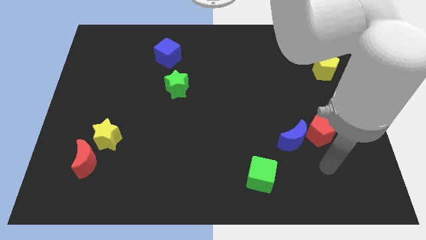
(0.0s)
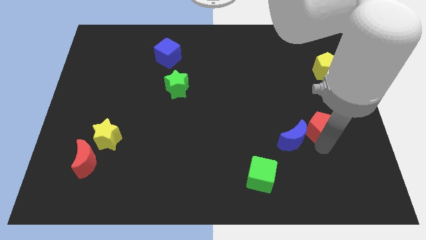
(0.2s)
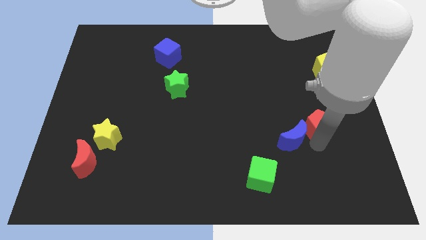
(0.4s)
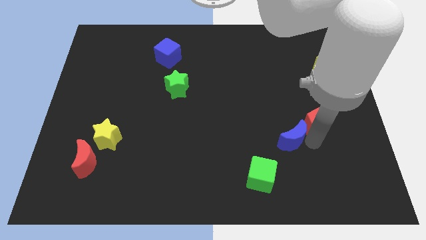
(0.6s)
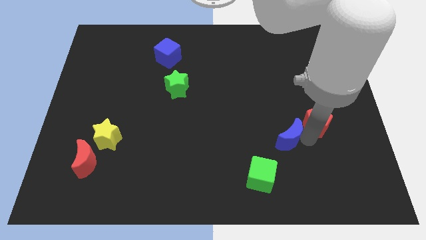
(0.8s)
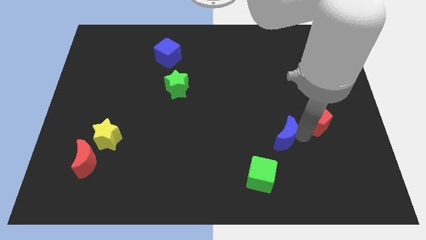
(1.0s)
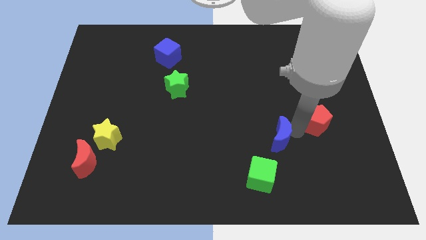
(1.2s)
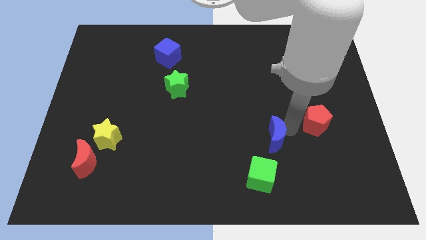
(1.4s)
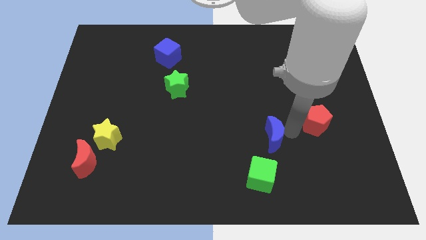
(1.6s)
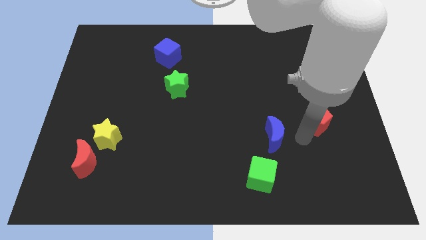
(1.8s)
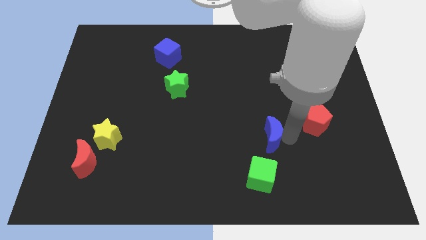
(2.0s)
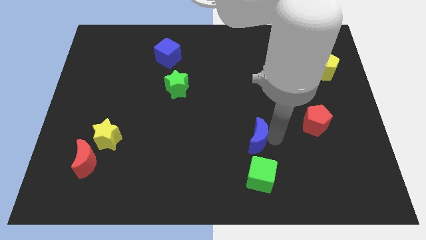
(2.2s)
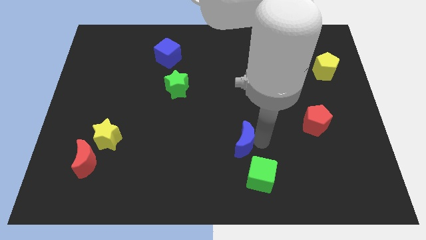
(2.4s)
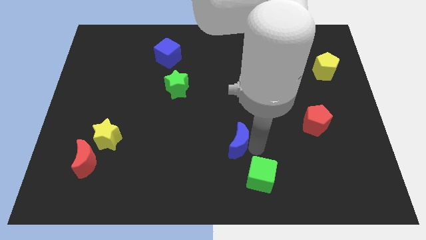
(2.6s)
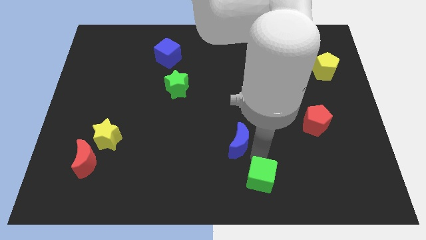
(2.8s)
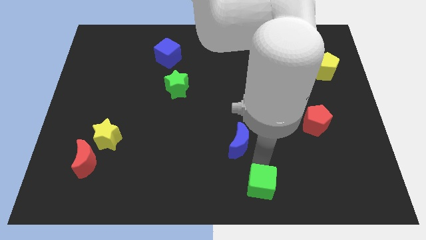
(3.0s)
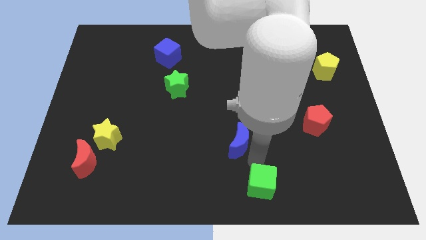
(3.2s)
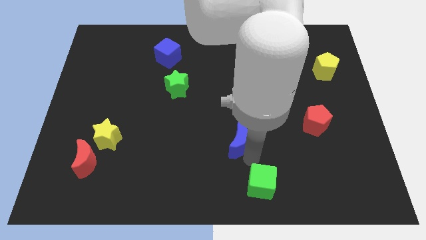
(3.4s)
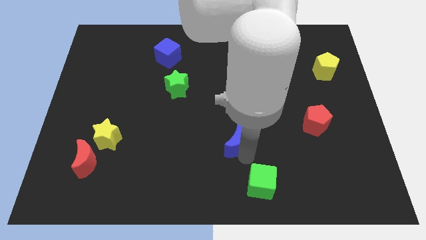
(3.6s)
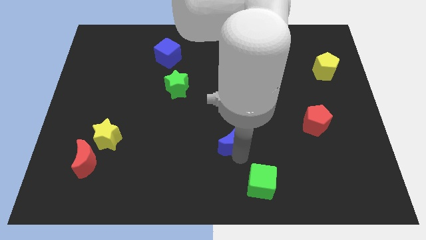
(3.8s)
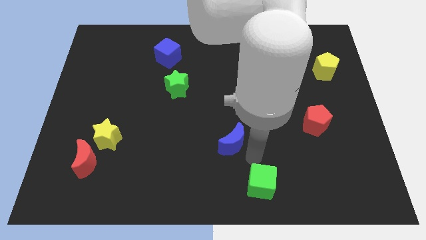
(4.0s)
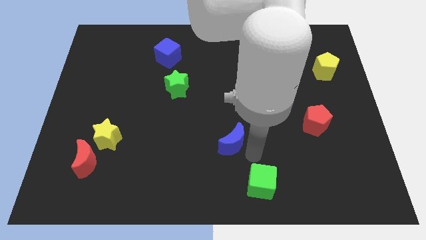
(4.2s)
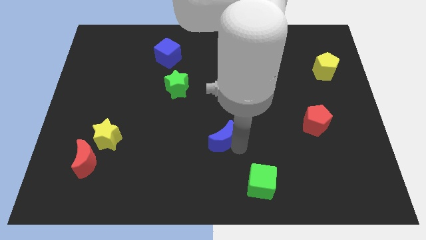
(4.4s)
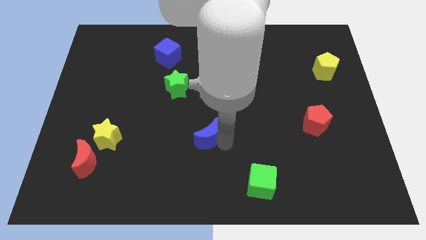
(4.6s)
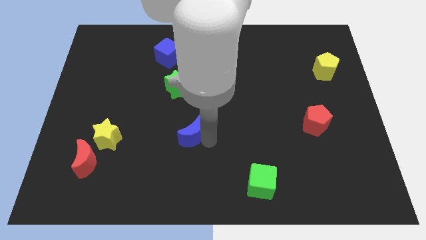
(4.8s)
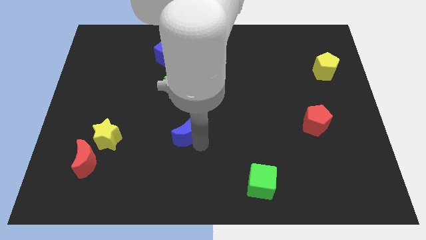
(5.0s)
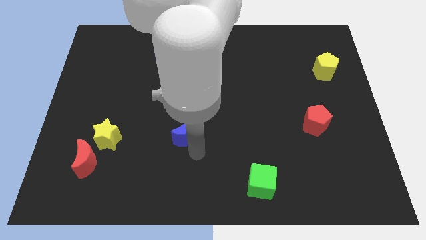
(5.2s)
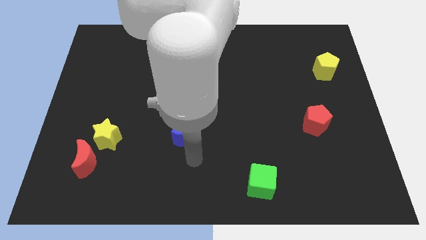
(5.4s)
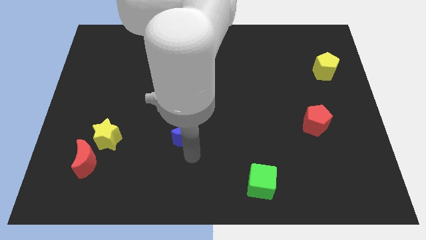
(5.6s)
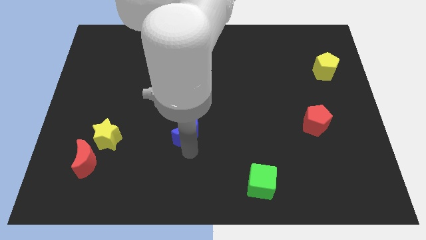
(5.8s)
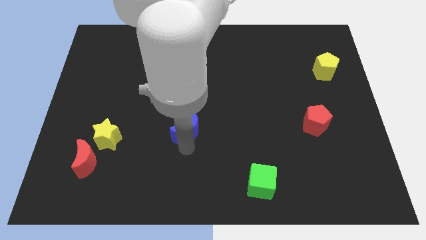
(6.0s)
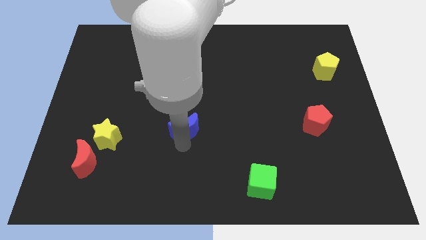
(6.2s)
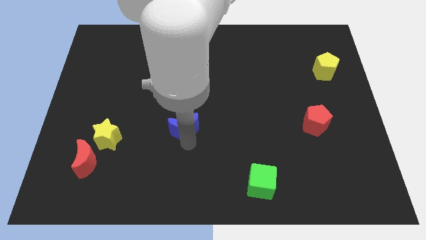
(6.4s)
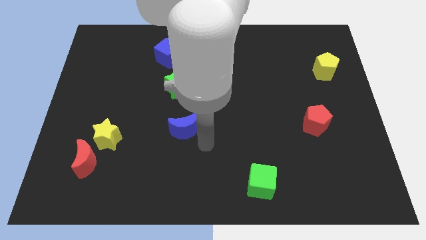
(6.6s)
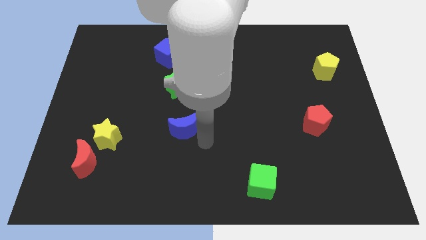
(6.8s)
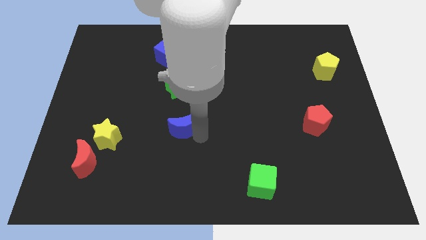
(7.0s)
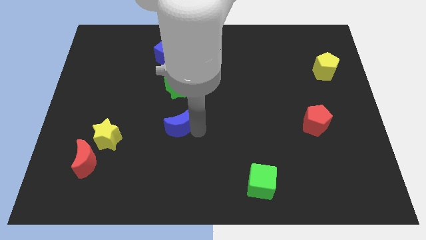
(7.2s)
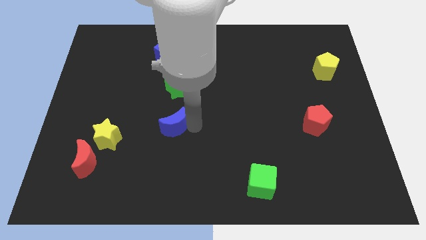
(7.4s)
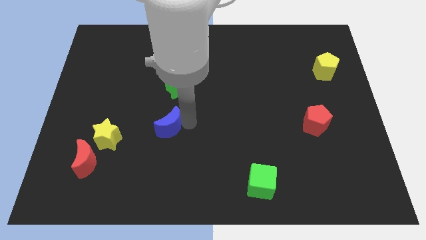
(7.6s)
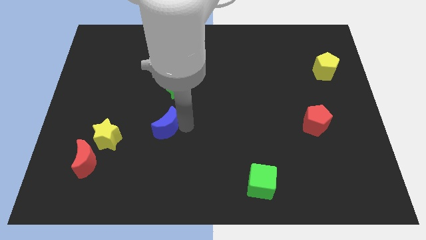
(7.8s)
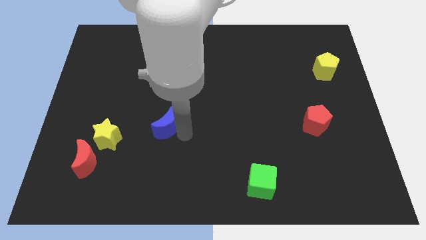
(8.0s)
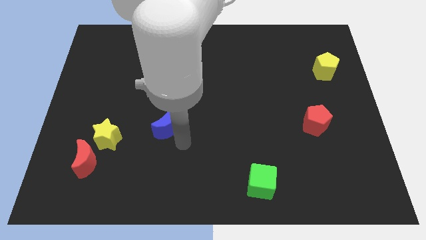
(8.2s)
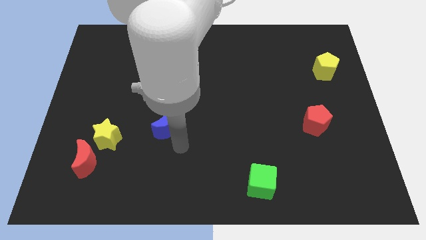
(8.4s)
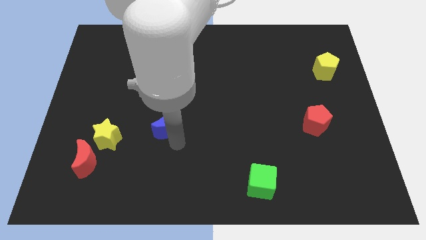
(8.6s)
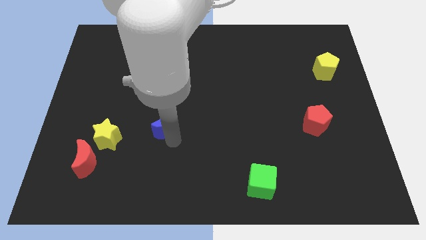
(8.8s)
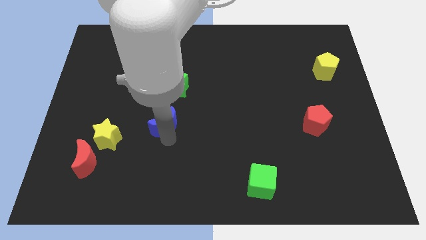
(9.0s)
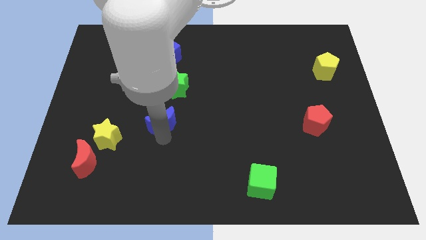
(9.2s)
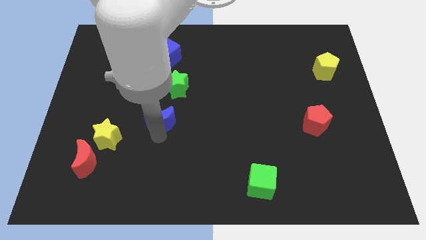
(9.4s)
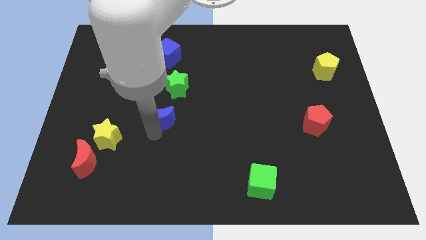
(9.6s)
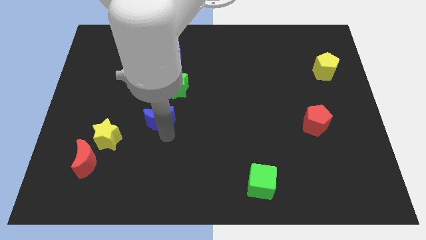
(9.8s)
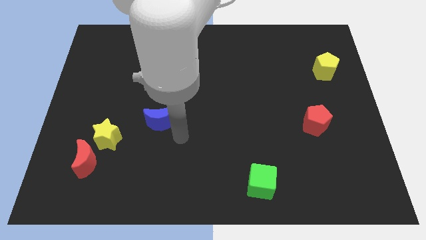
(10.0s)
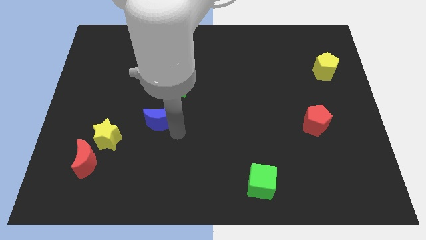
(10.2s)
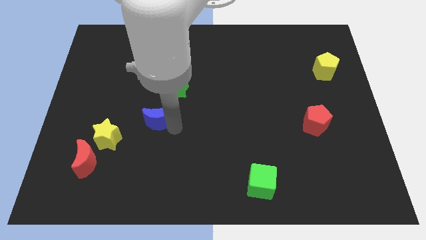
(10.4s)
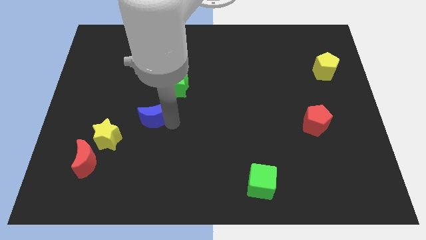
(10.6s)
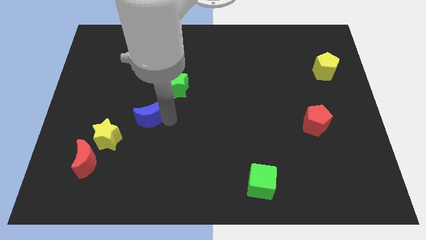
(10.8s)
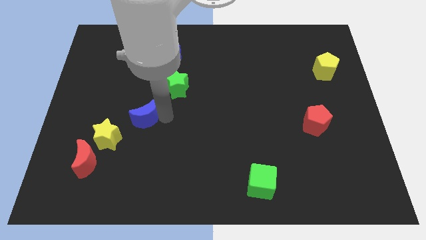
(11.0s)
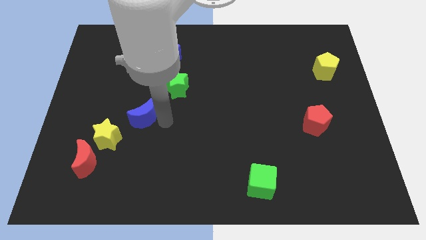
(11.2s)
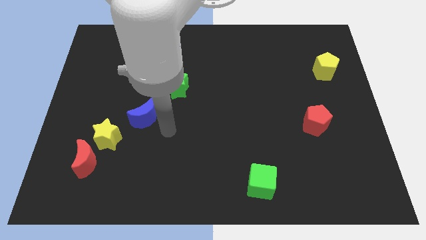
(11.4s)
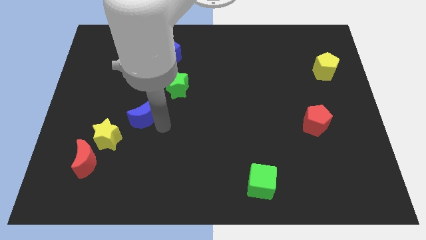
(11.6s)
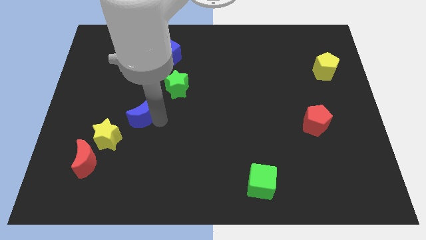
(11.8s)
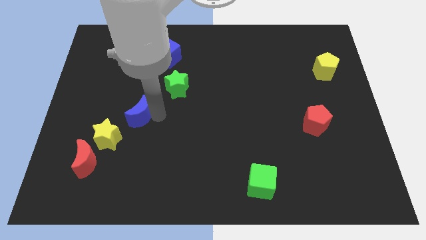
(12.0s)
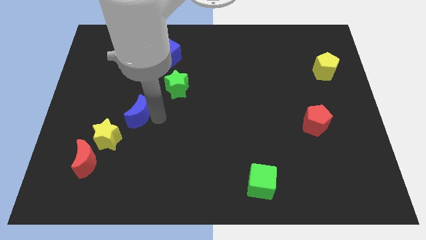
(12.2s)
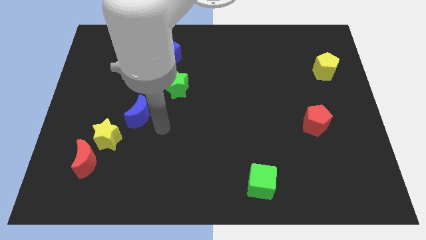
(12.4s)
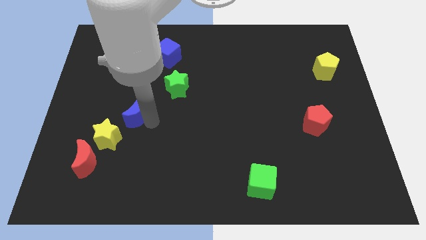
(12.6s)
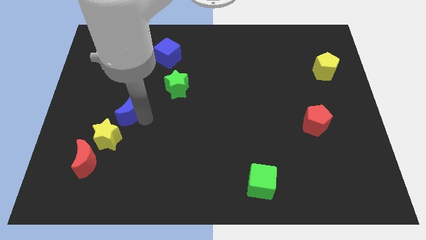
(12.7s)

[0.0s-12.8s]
put the blue moon to the top side of the yellow star

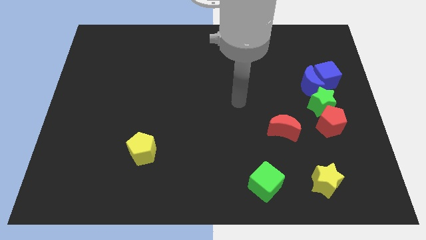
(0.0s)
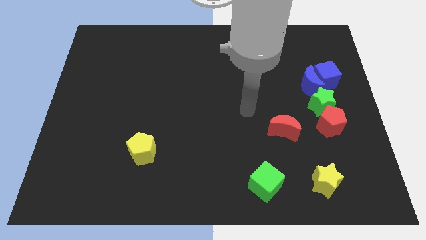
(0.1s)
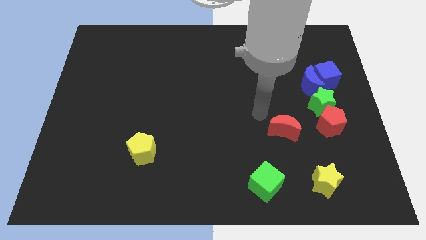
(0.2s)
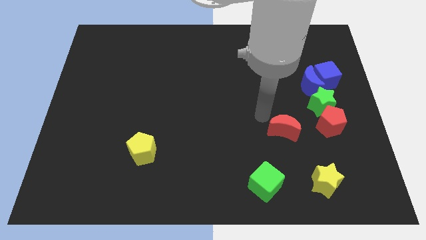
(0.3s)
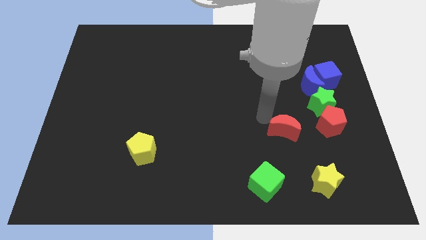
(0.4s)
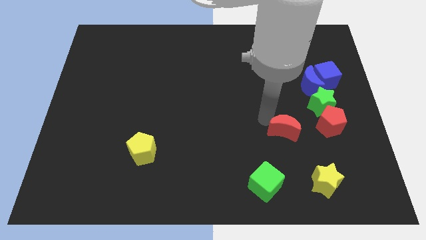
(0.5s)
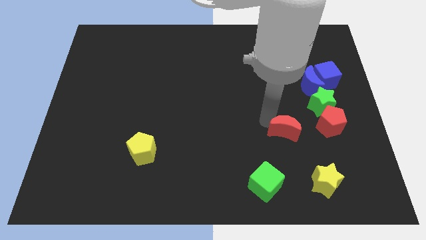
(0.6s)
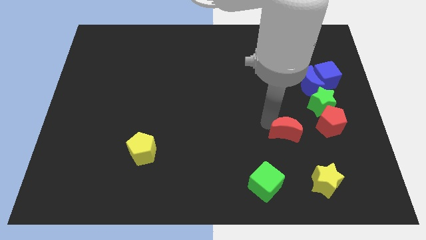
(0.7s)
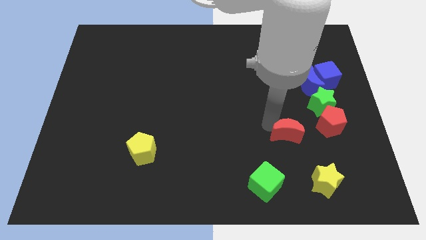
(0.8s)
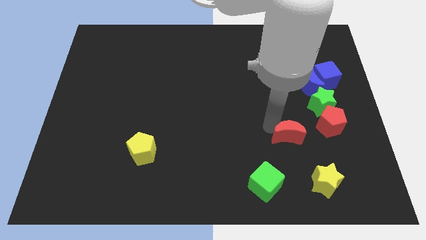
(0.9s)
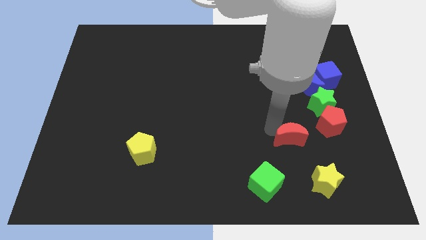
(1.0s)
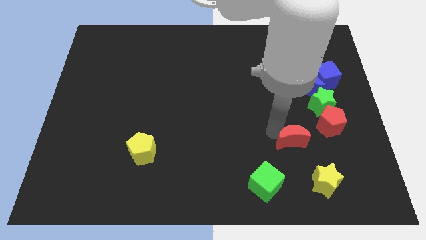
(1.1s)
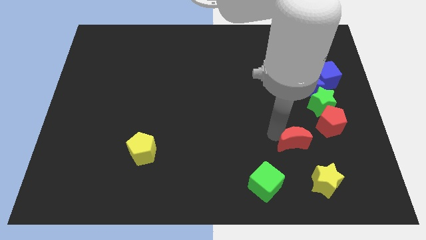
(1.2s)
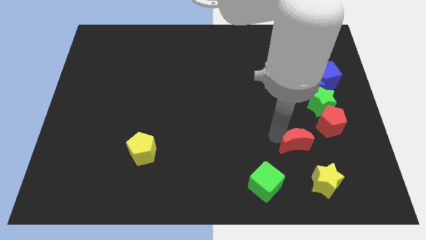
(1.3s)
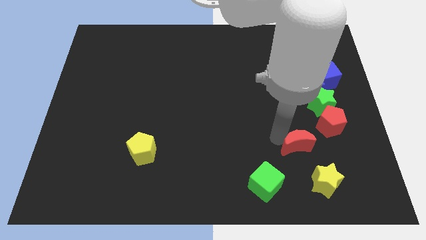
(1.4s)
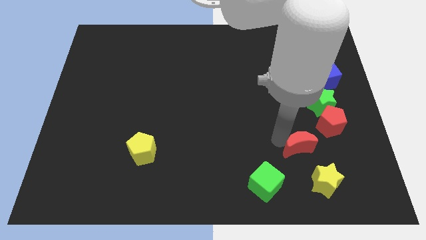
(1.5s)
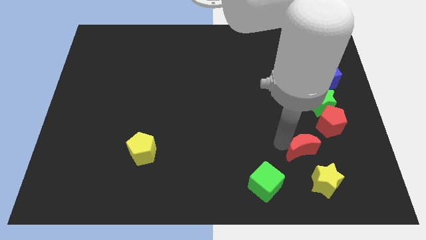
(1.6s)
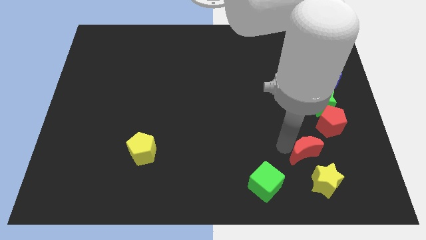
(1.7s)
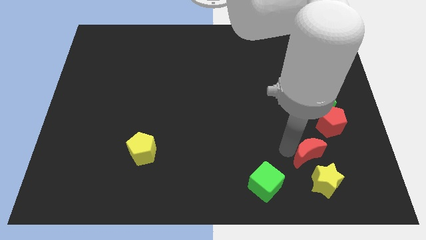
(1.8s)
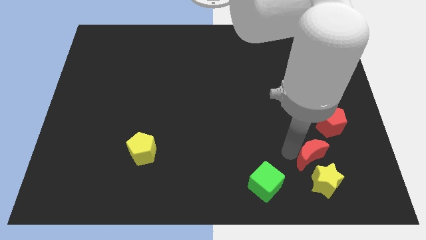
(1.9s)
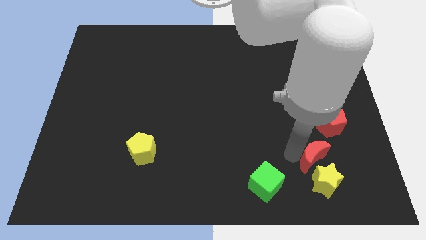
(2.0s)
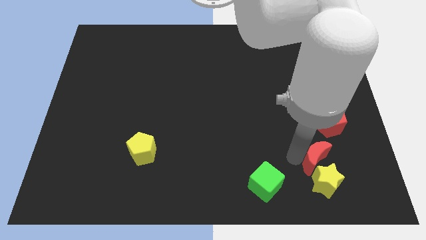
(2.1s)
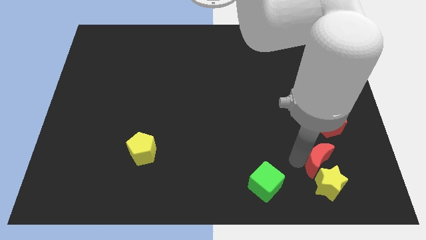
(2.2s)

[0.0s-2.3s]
push the red moon to the bottom side of the red pentagon
